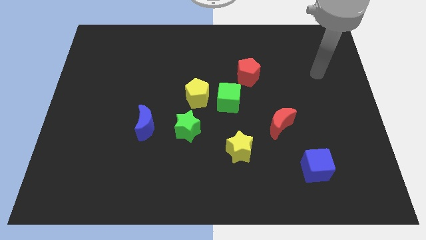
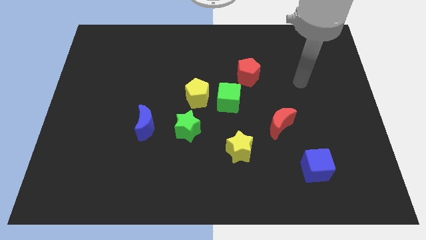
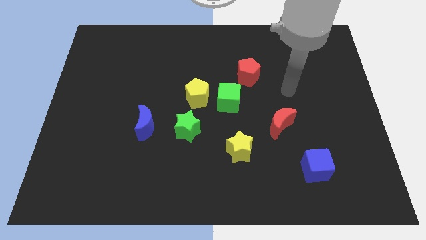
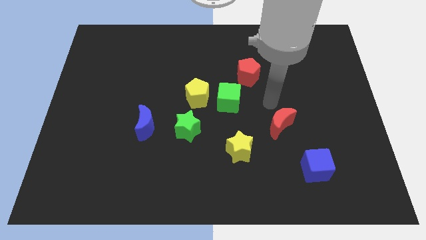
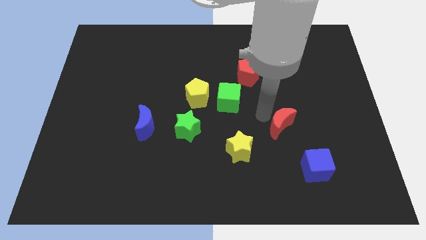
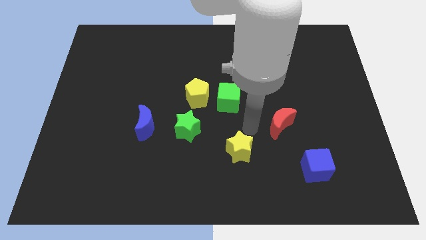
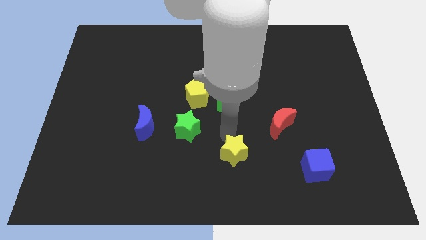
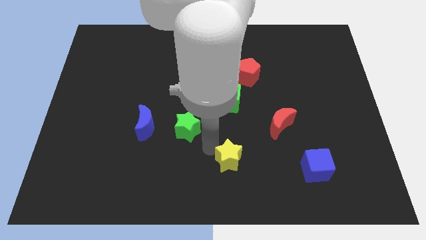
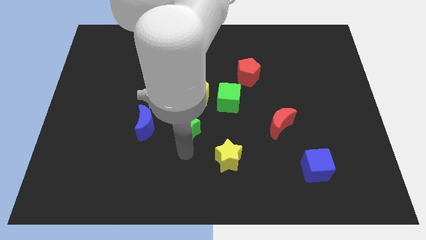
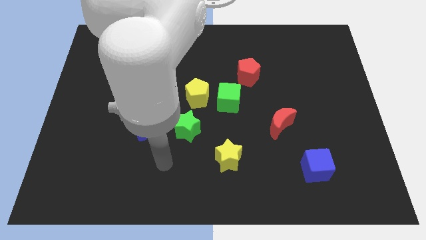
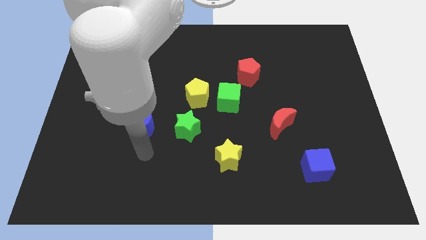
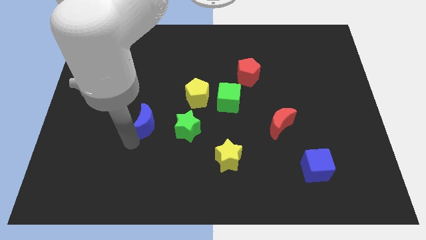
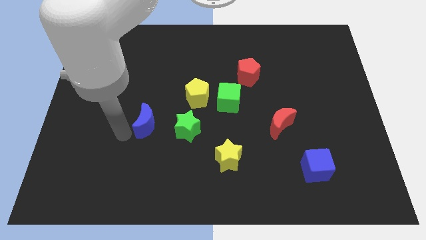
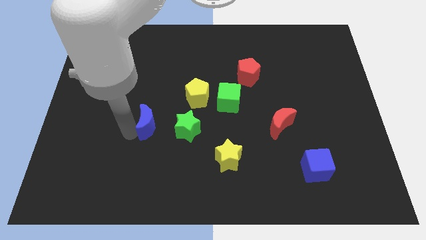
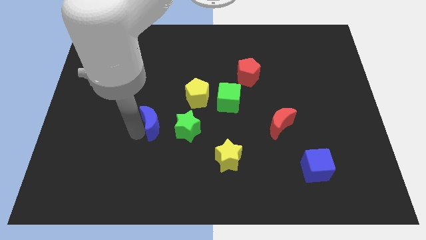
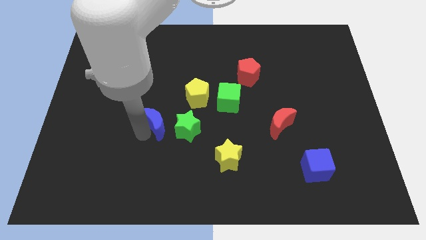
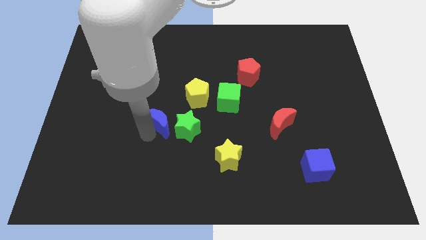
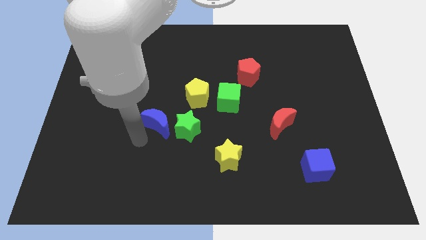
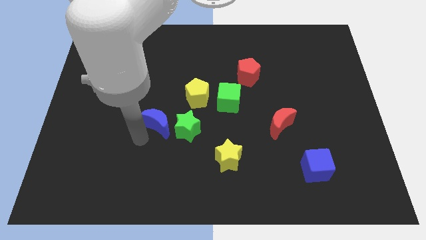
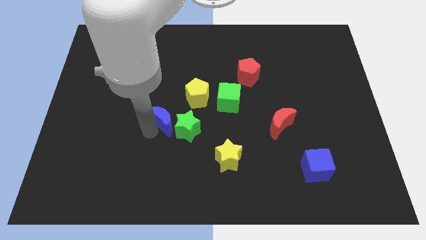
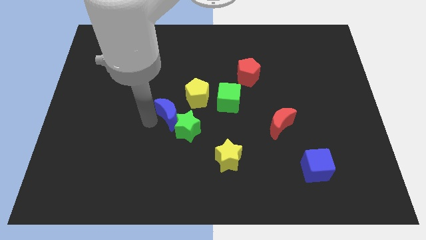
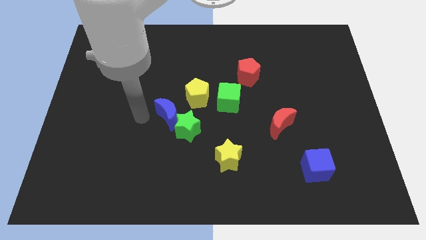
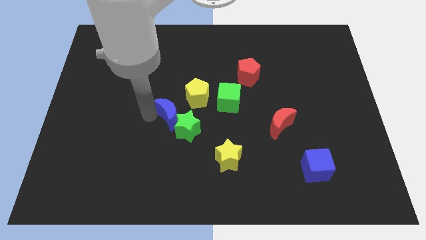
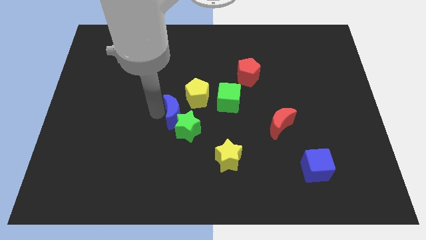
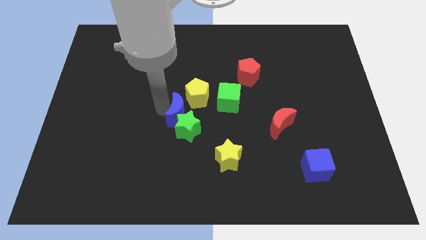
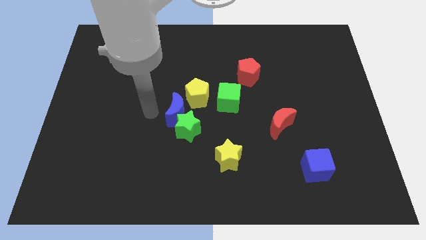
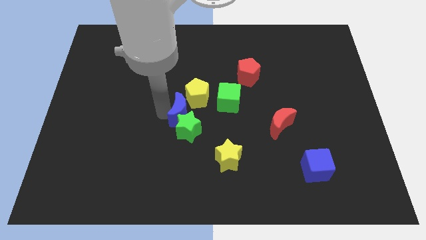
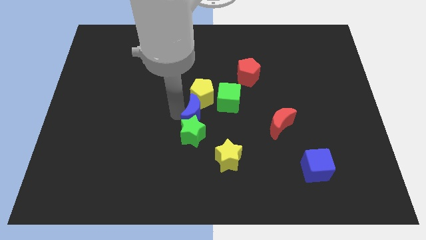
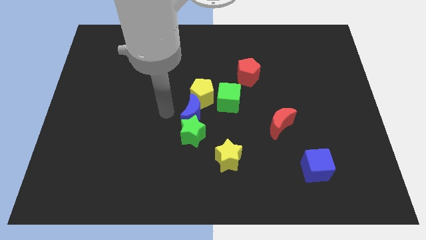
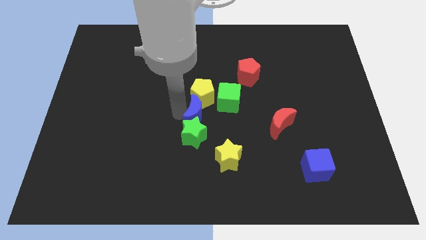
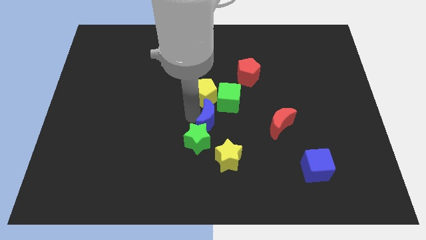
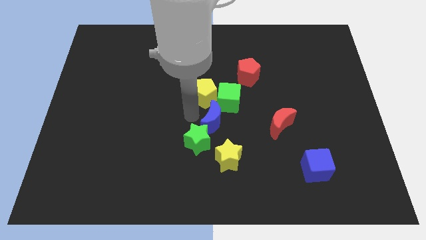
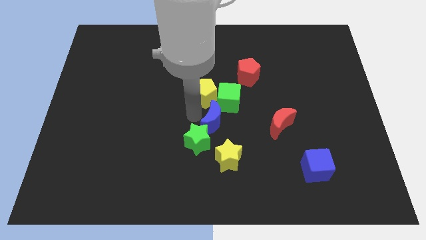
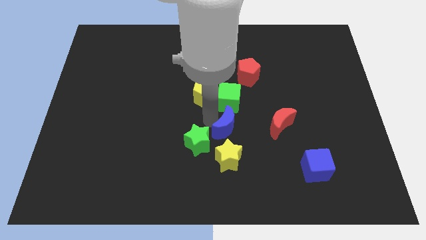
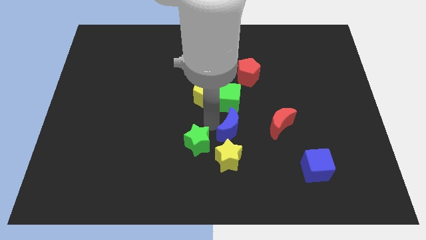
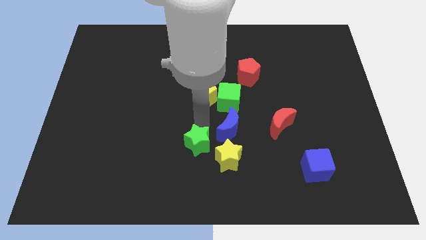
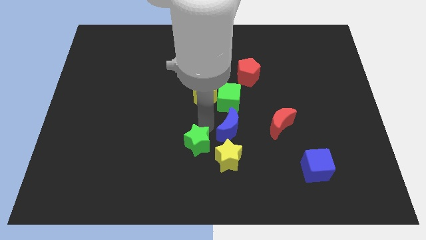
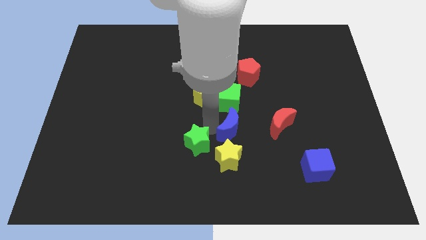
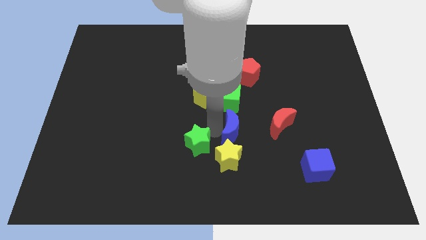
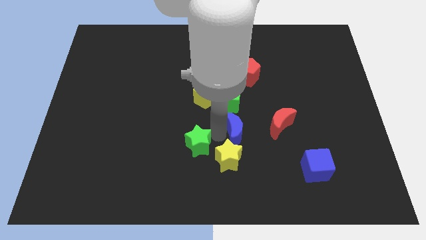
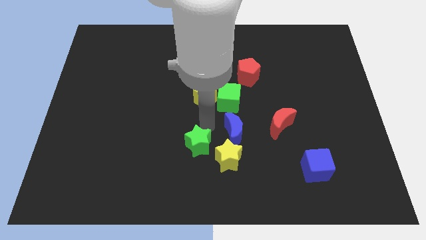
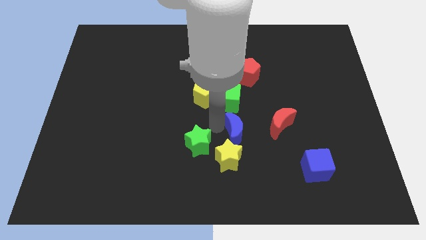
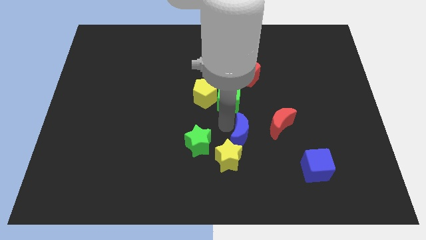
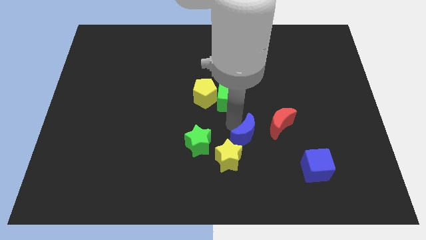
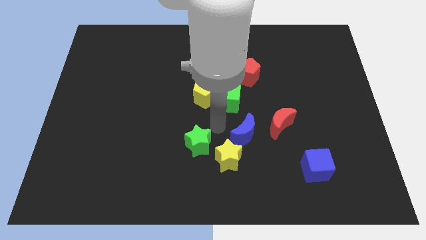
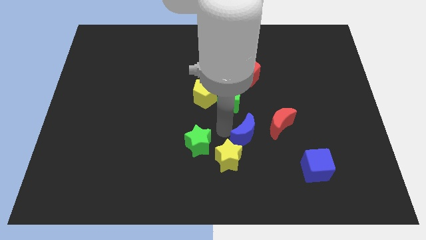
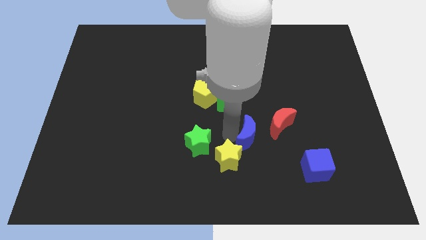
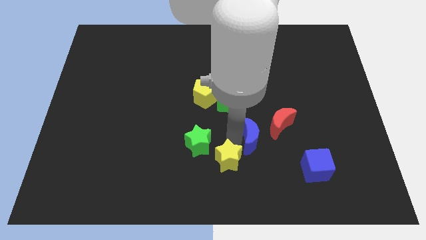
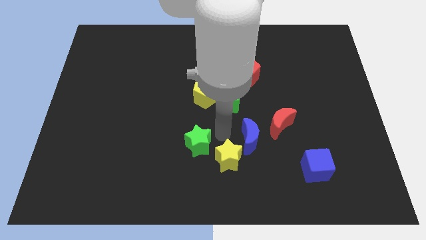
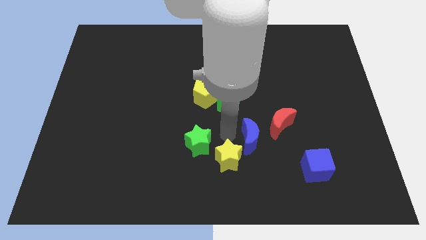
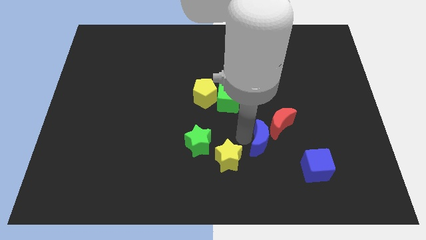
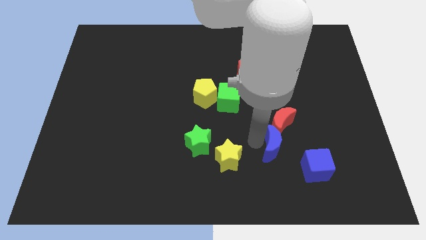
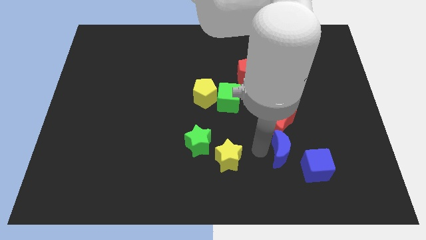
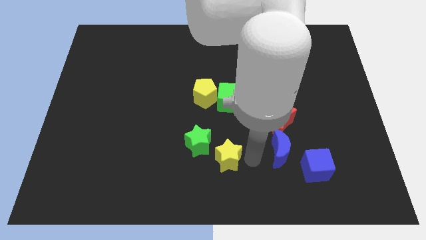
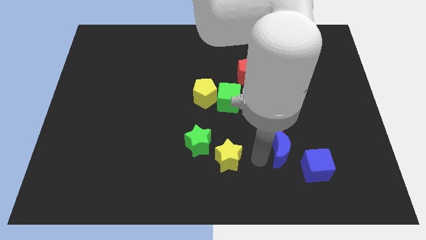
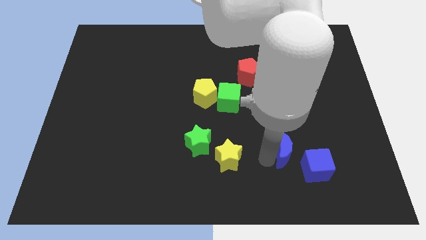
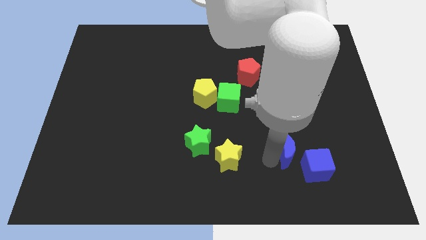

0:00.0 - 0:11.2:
slide the blue moon to the bottom right of the red moon

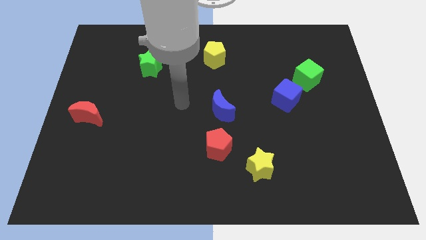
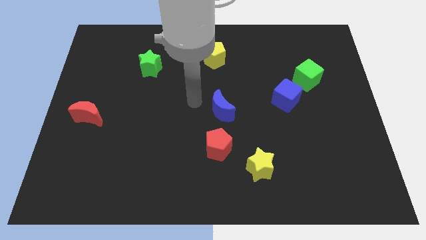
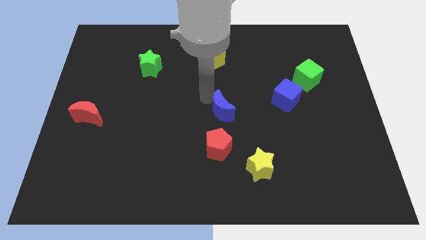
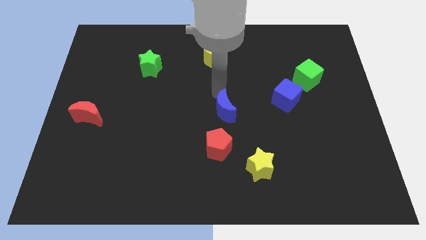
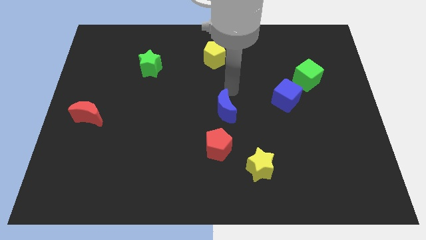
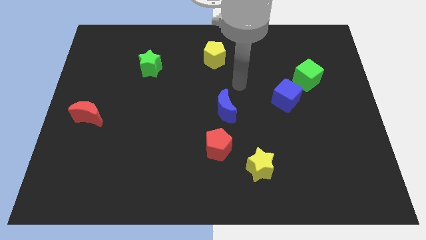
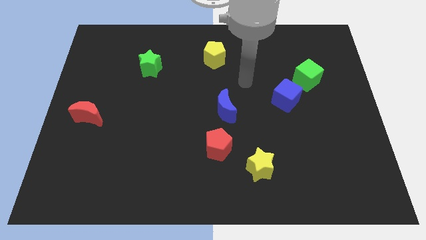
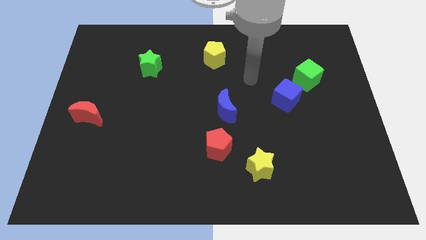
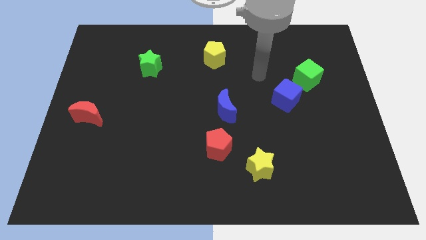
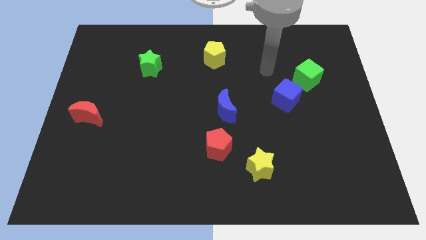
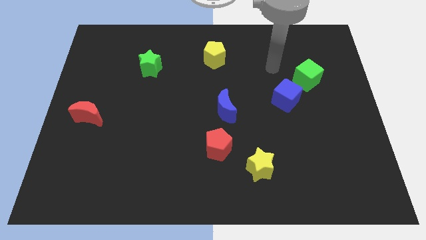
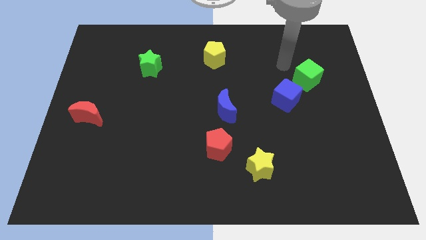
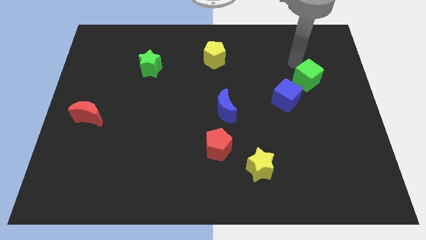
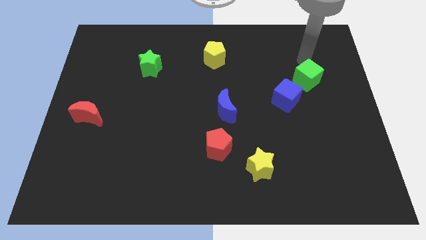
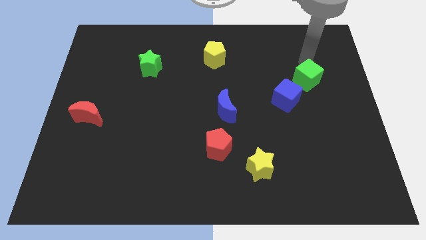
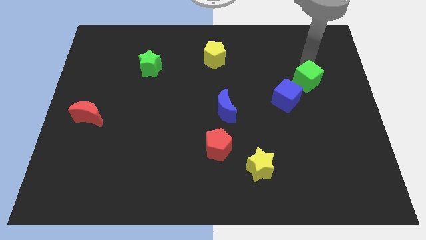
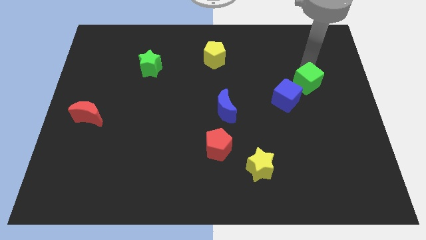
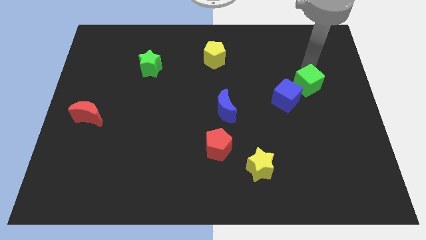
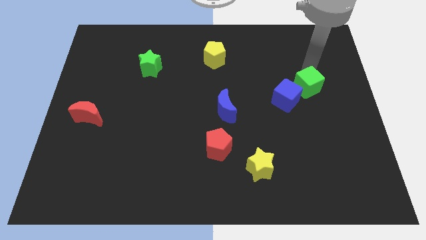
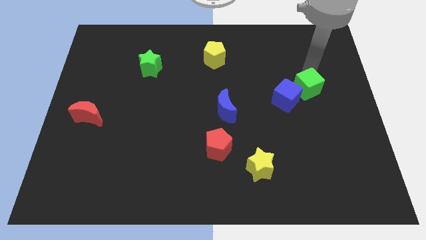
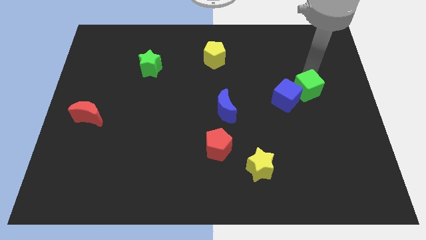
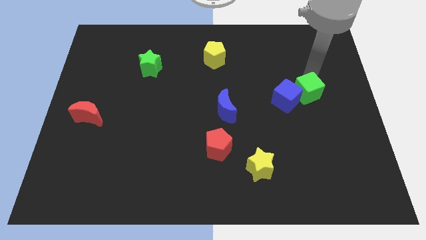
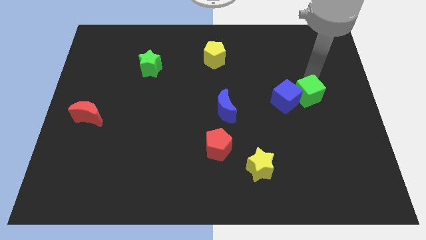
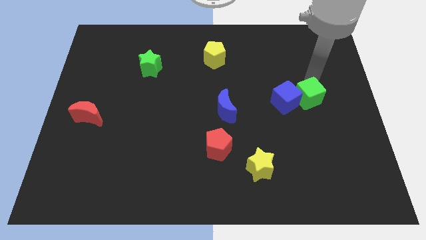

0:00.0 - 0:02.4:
put the green cube to the bottom right of the blue cube
